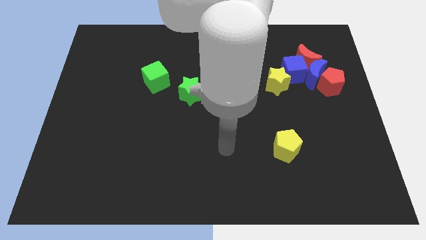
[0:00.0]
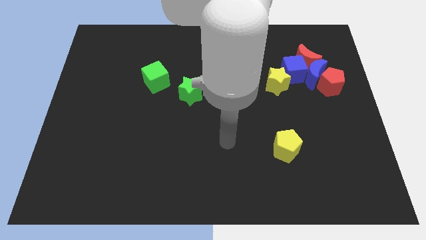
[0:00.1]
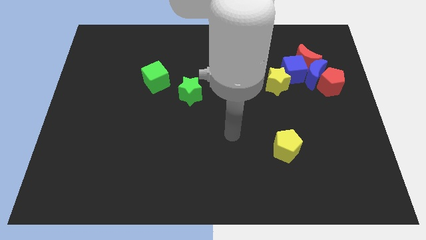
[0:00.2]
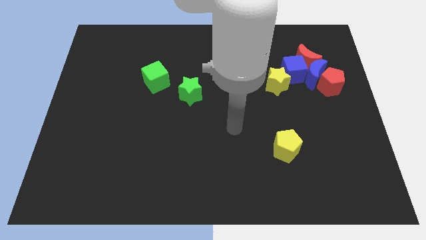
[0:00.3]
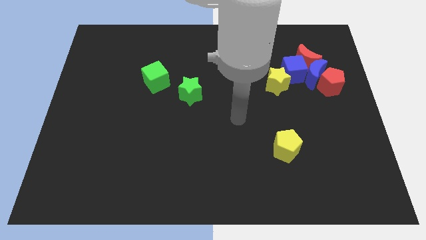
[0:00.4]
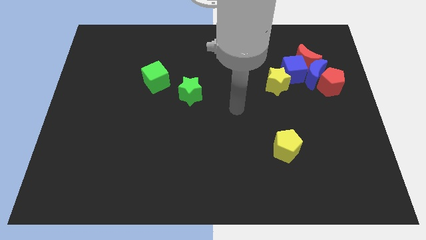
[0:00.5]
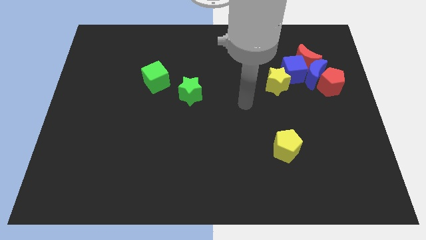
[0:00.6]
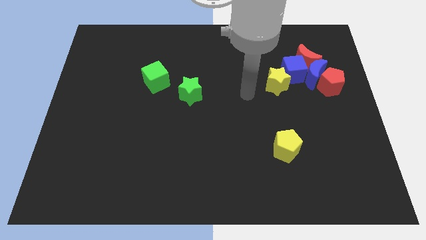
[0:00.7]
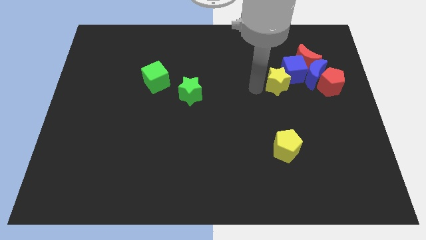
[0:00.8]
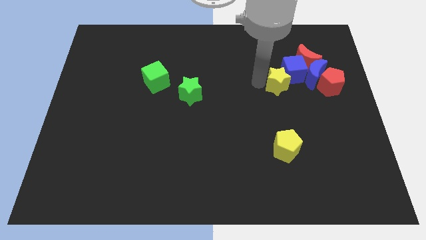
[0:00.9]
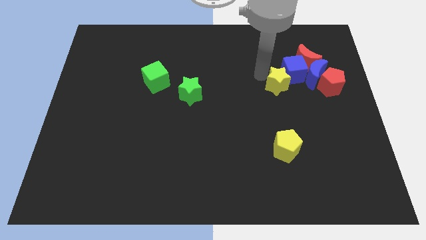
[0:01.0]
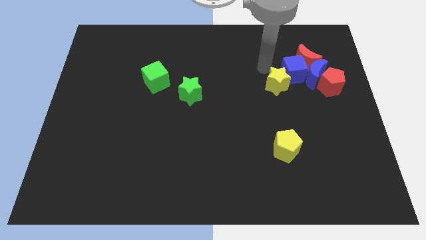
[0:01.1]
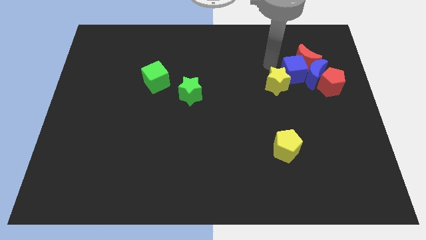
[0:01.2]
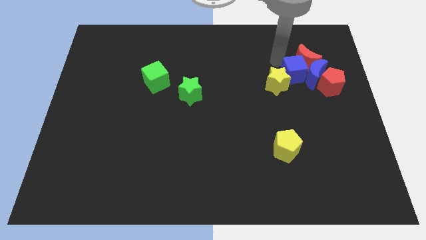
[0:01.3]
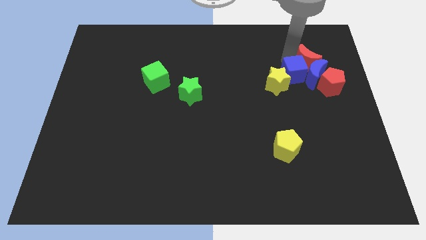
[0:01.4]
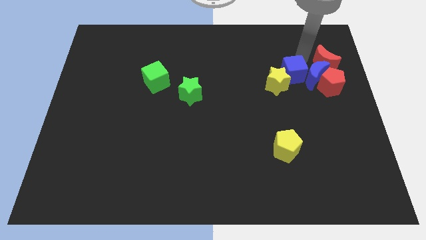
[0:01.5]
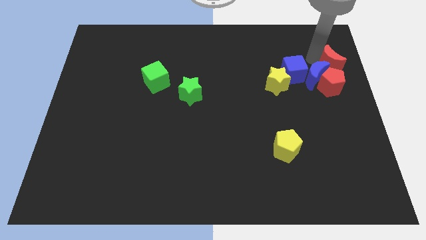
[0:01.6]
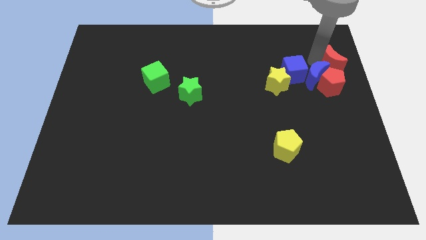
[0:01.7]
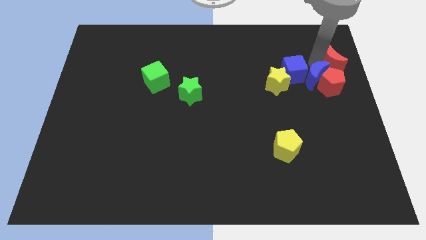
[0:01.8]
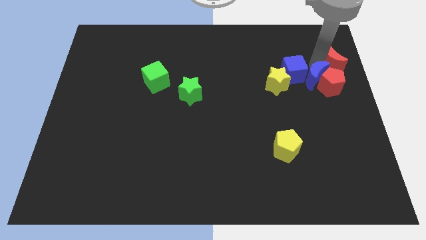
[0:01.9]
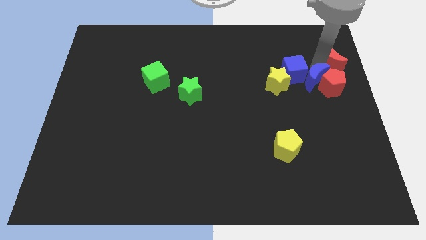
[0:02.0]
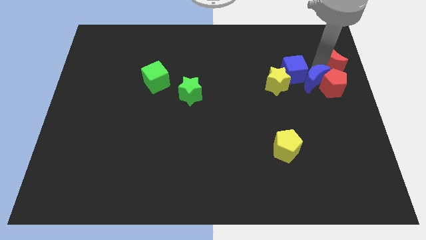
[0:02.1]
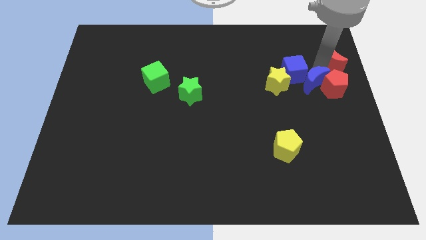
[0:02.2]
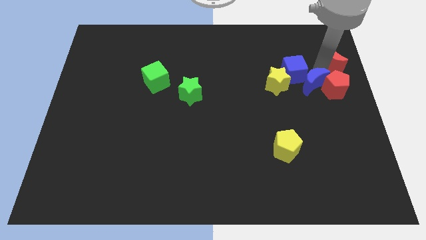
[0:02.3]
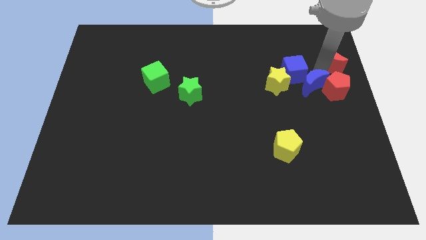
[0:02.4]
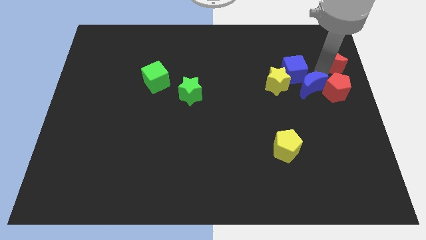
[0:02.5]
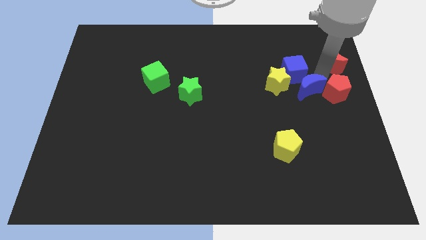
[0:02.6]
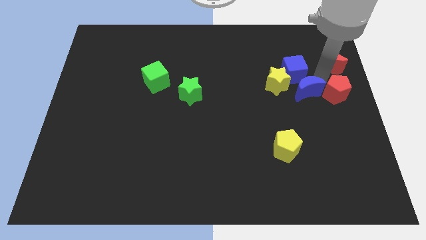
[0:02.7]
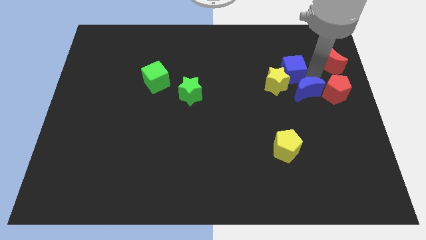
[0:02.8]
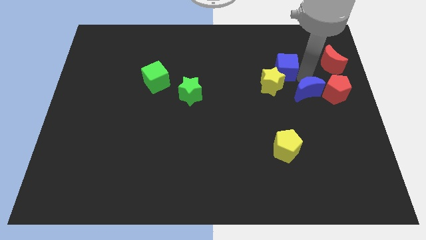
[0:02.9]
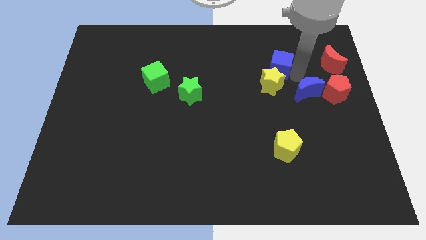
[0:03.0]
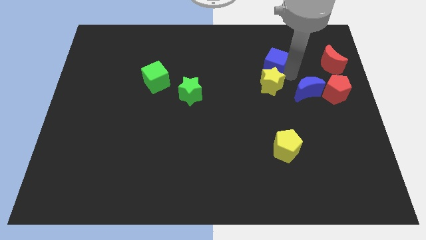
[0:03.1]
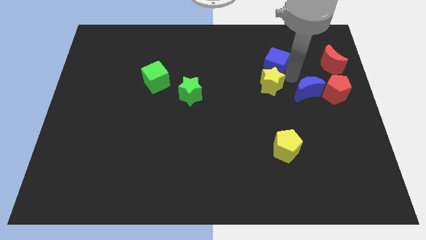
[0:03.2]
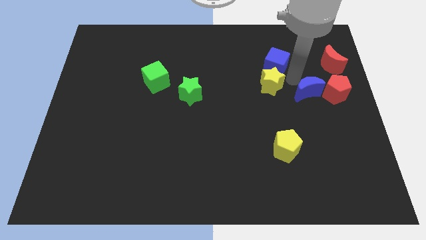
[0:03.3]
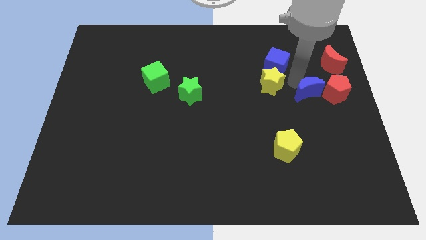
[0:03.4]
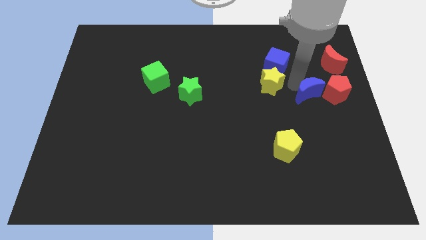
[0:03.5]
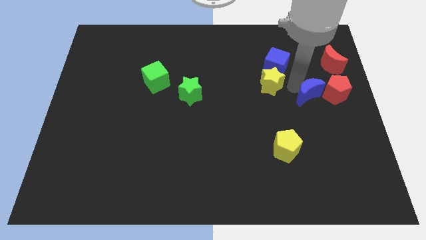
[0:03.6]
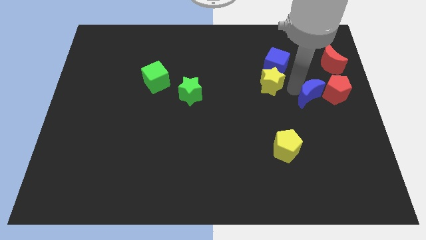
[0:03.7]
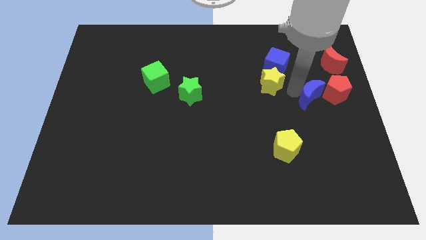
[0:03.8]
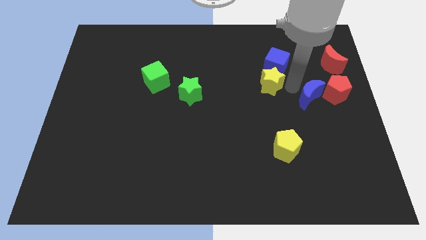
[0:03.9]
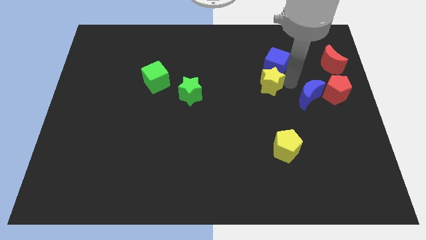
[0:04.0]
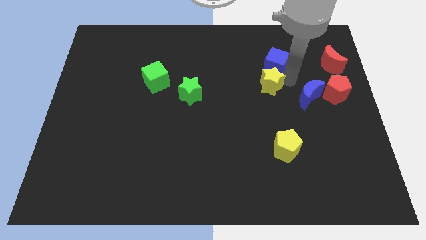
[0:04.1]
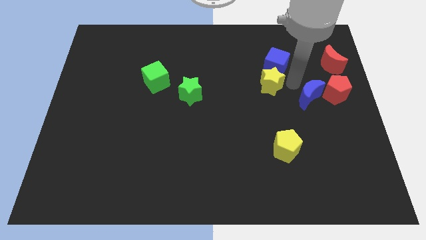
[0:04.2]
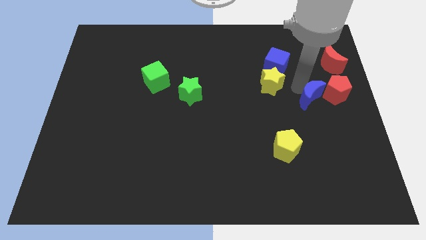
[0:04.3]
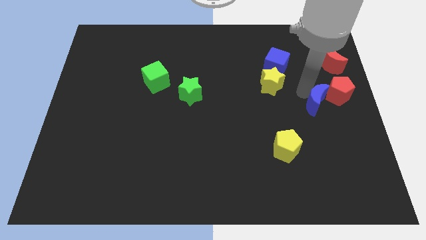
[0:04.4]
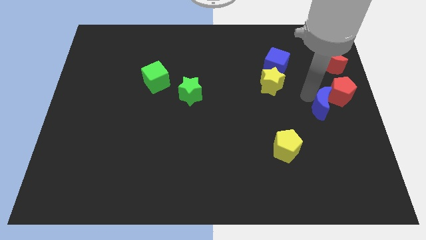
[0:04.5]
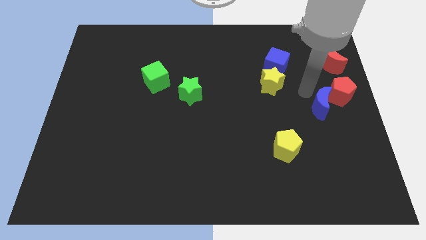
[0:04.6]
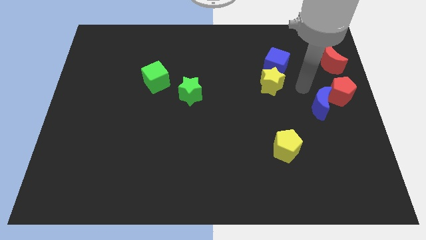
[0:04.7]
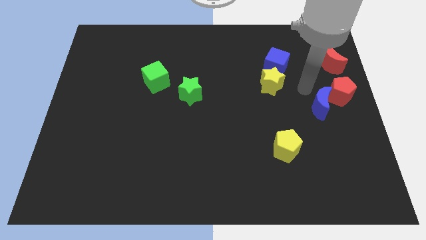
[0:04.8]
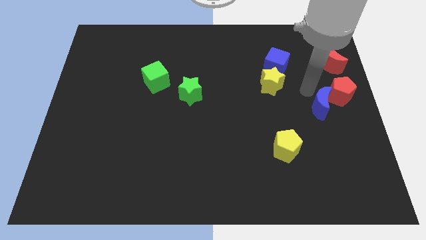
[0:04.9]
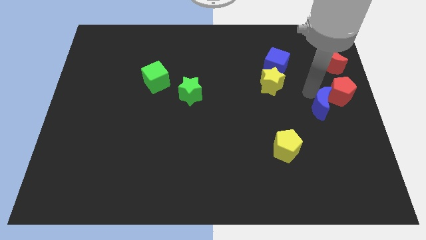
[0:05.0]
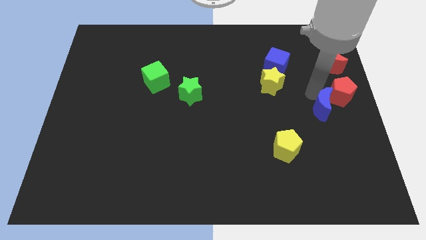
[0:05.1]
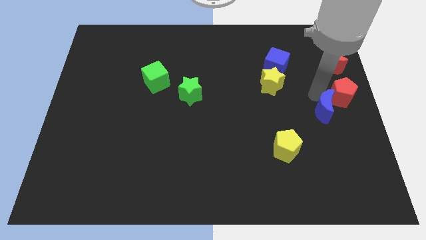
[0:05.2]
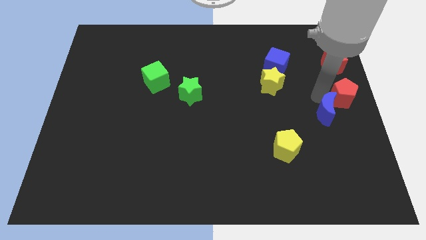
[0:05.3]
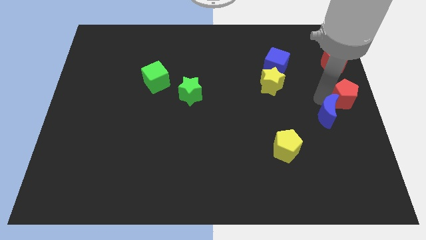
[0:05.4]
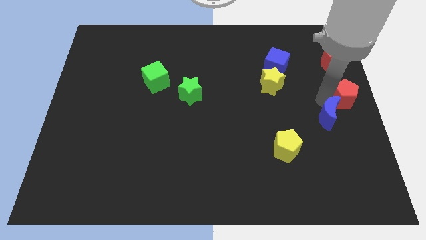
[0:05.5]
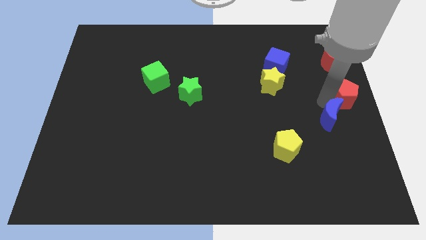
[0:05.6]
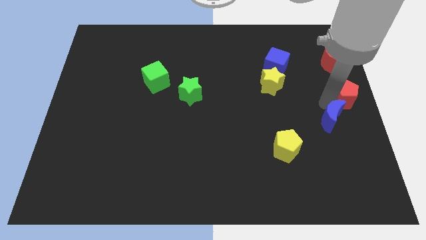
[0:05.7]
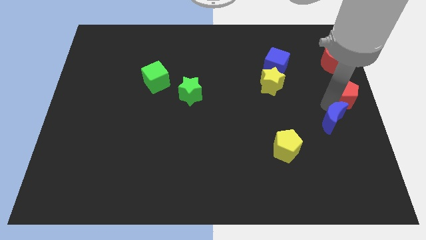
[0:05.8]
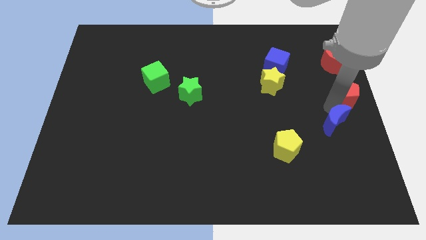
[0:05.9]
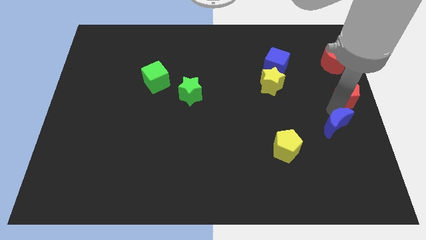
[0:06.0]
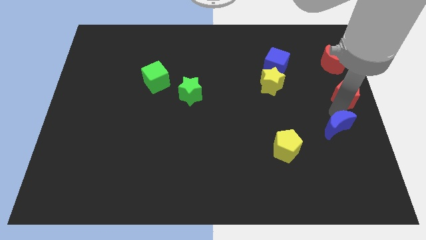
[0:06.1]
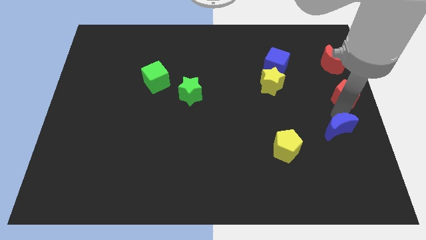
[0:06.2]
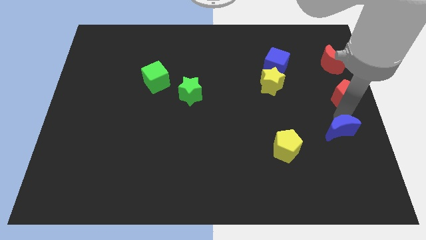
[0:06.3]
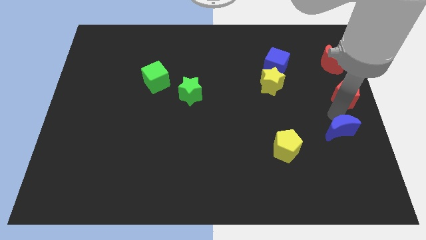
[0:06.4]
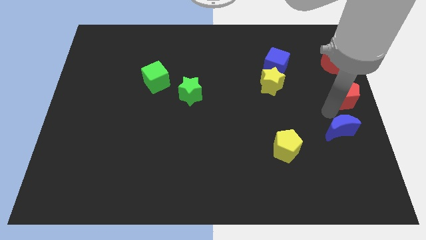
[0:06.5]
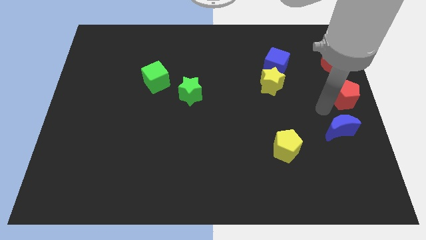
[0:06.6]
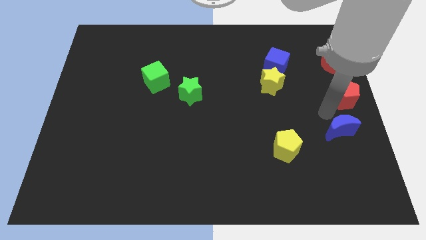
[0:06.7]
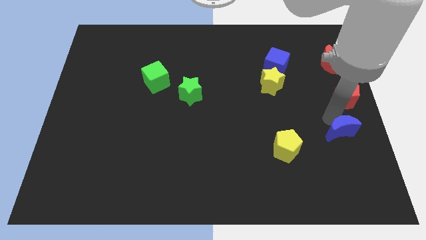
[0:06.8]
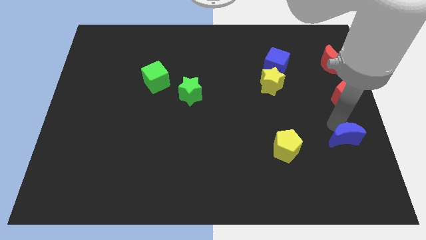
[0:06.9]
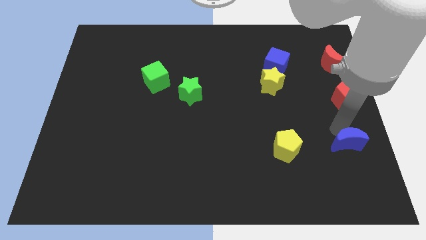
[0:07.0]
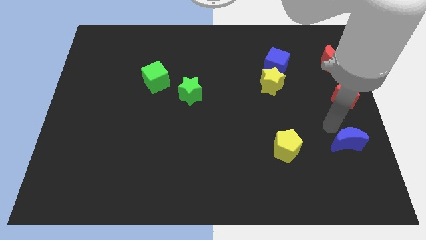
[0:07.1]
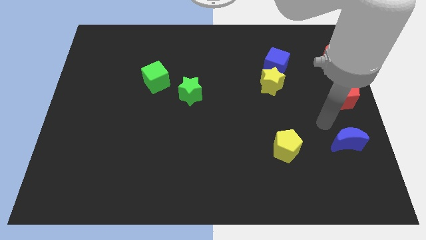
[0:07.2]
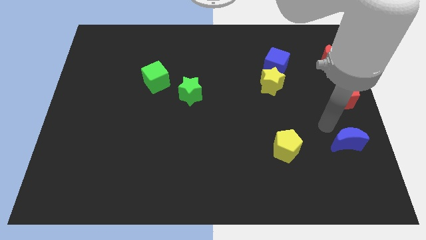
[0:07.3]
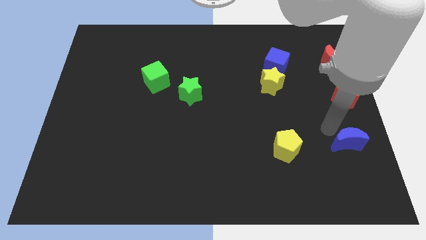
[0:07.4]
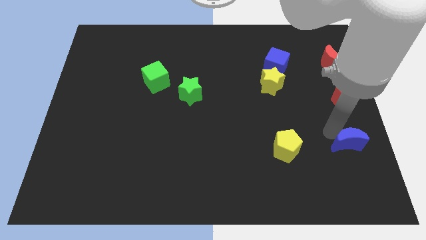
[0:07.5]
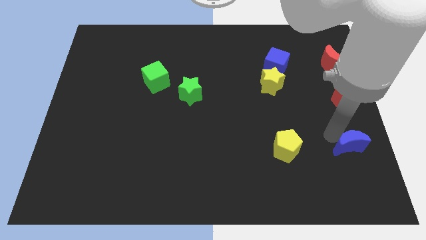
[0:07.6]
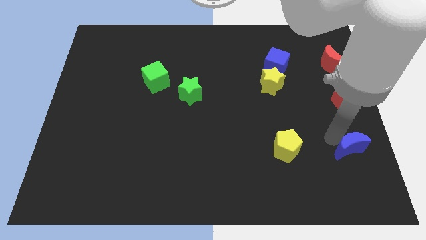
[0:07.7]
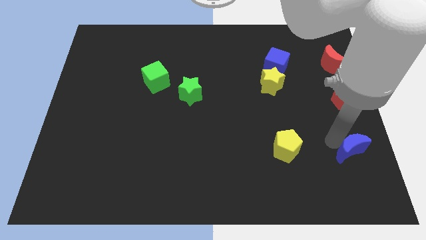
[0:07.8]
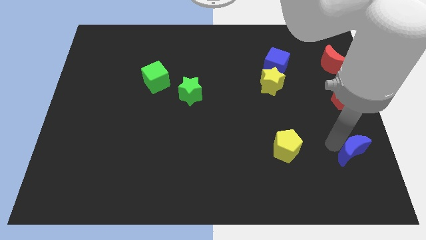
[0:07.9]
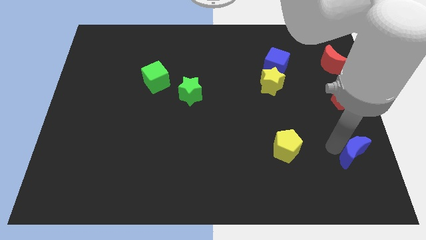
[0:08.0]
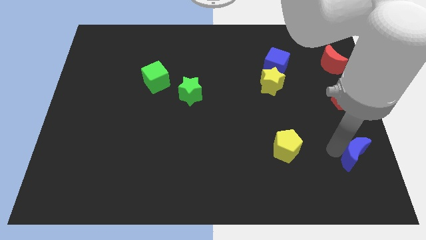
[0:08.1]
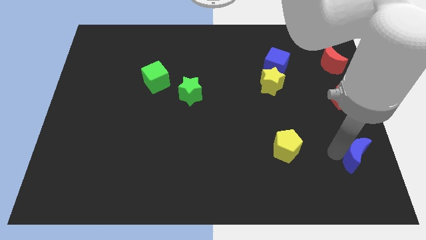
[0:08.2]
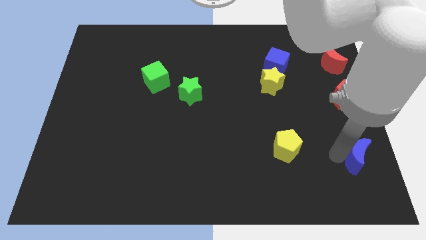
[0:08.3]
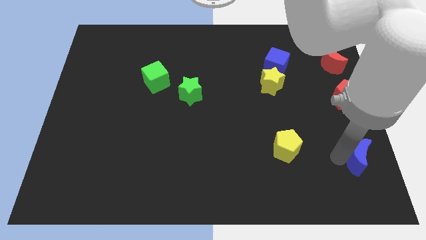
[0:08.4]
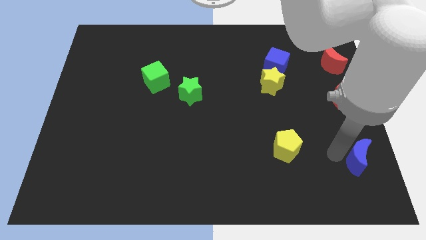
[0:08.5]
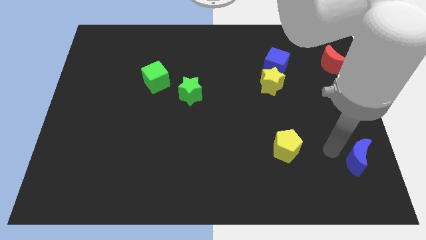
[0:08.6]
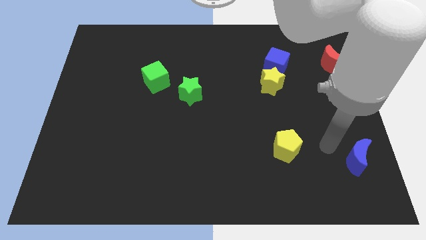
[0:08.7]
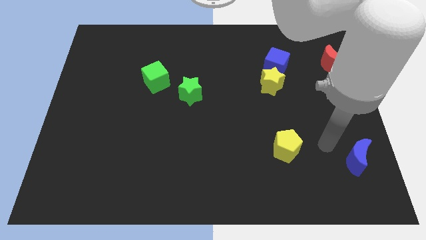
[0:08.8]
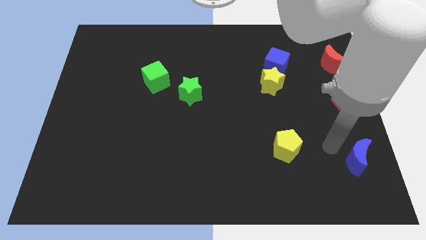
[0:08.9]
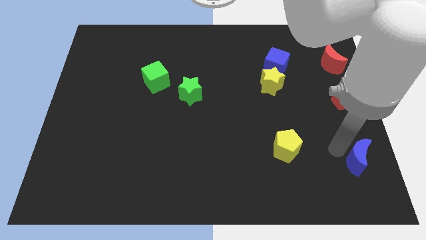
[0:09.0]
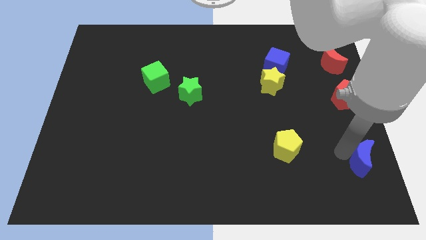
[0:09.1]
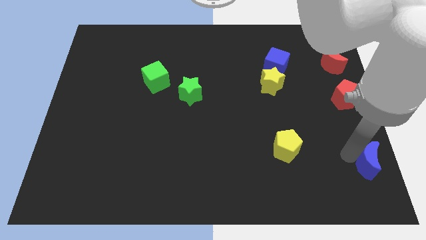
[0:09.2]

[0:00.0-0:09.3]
slide the blue moon to the lower right corner
